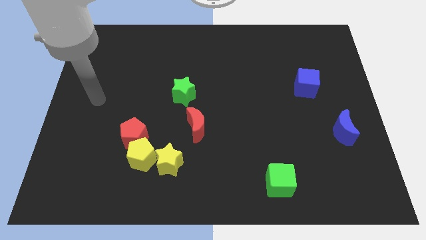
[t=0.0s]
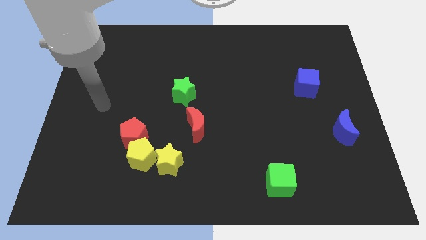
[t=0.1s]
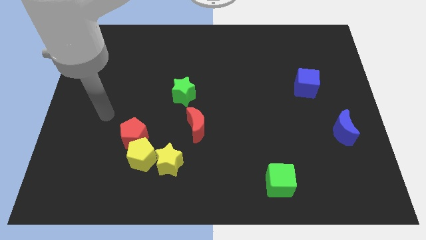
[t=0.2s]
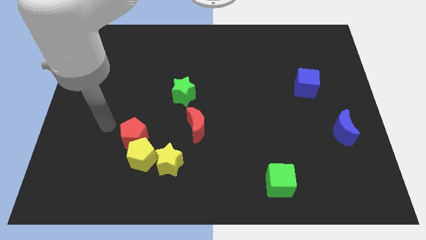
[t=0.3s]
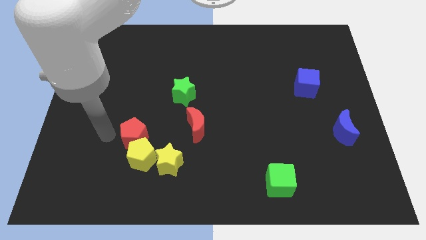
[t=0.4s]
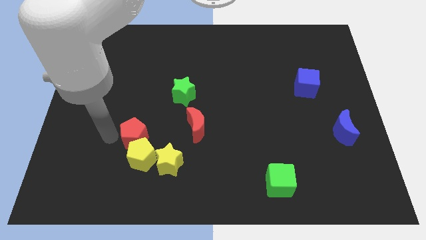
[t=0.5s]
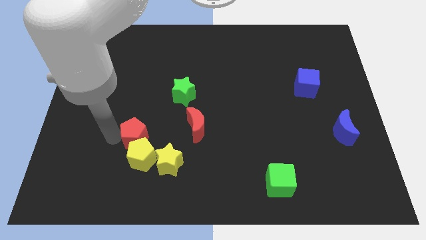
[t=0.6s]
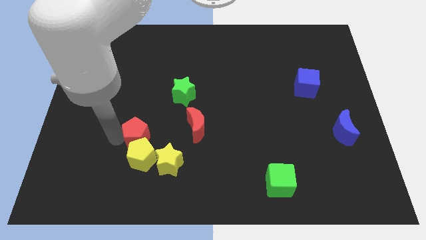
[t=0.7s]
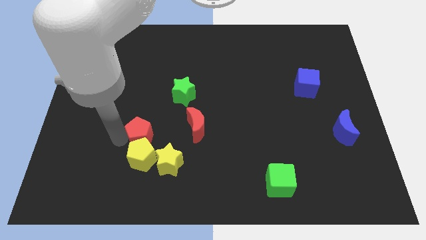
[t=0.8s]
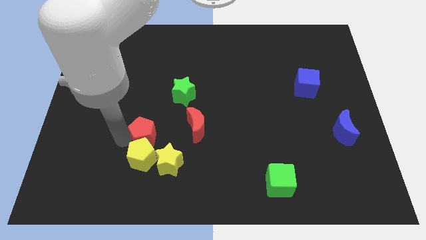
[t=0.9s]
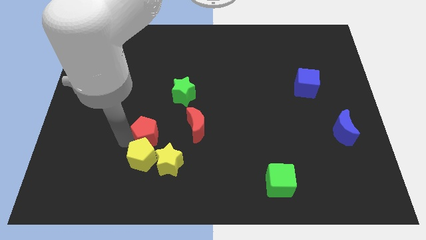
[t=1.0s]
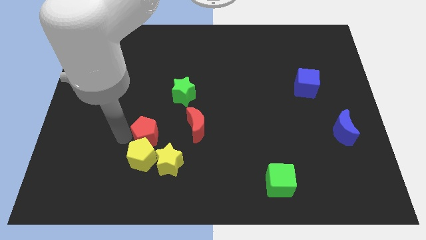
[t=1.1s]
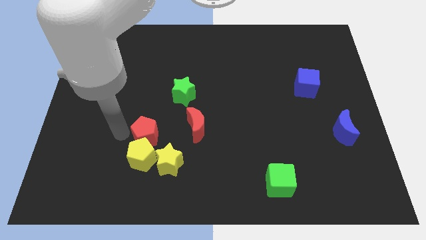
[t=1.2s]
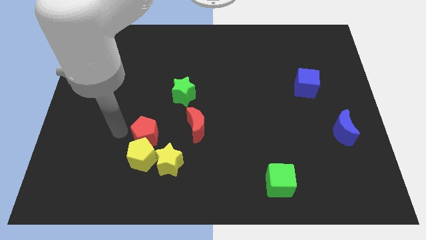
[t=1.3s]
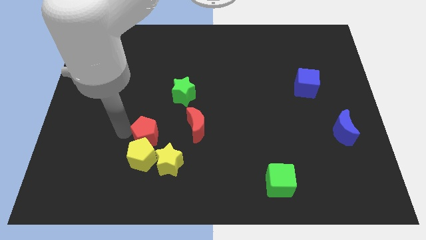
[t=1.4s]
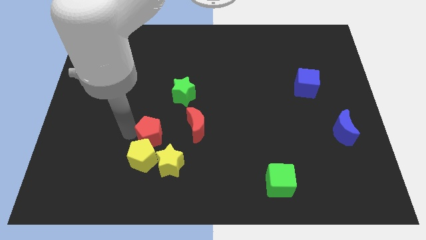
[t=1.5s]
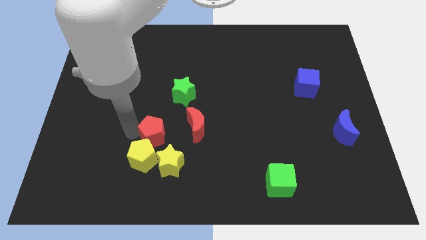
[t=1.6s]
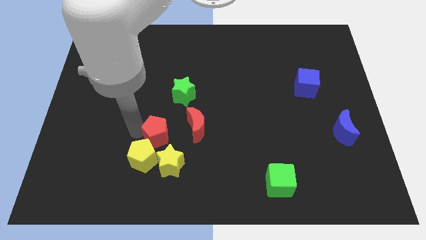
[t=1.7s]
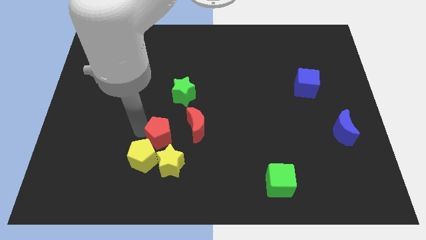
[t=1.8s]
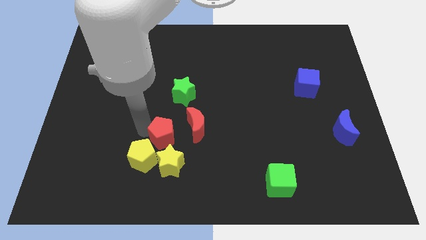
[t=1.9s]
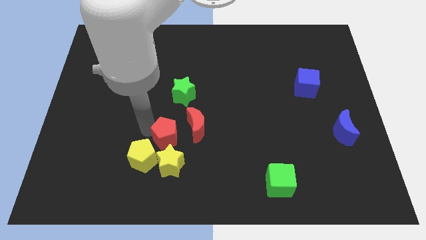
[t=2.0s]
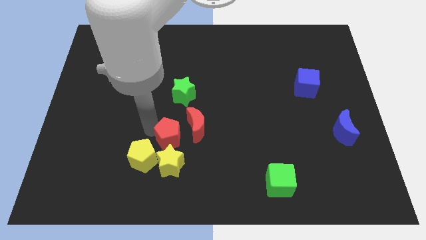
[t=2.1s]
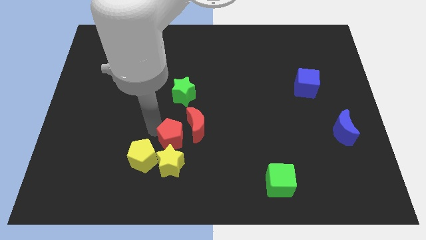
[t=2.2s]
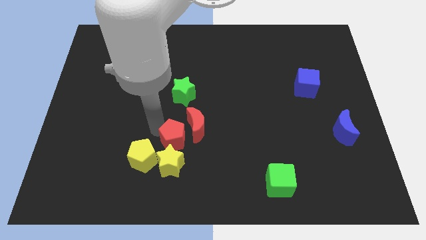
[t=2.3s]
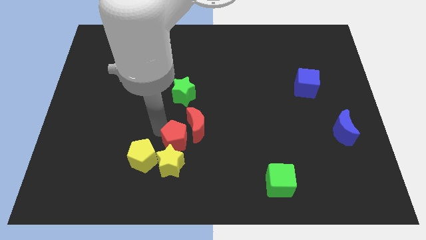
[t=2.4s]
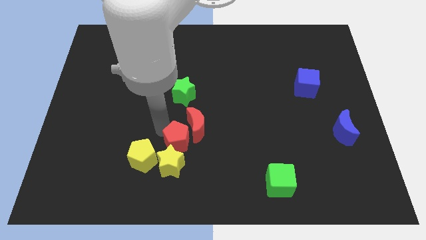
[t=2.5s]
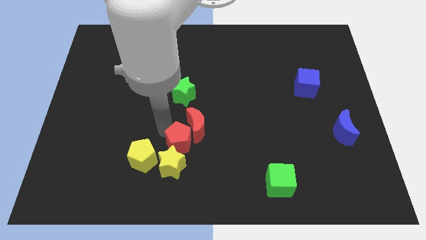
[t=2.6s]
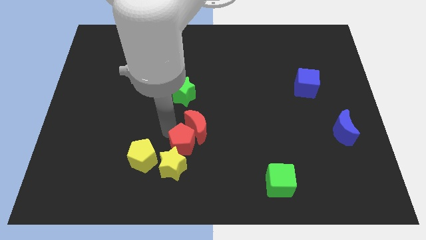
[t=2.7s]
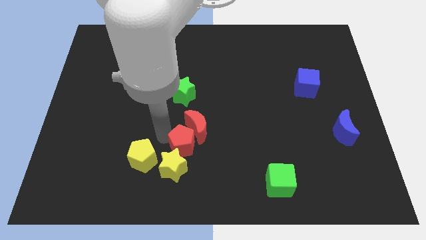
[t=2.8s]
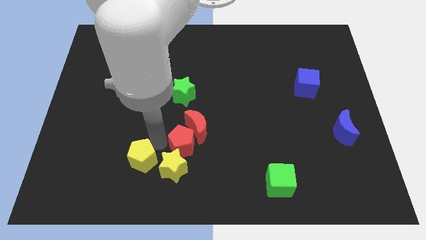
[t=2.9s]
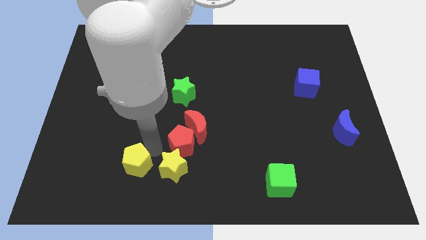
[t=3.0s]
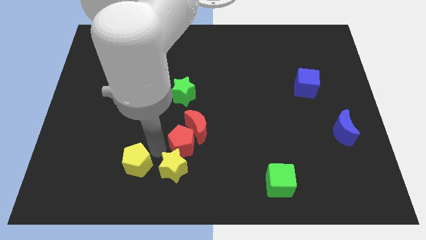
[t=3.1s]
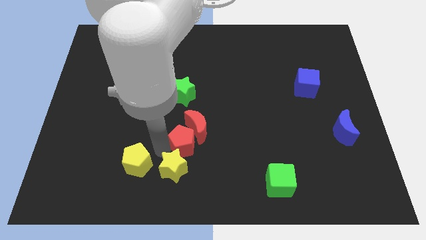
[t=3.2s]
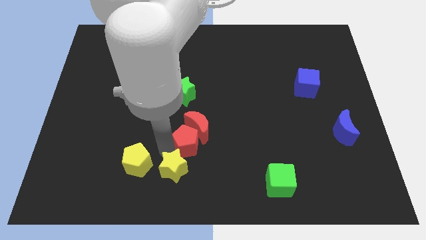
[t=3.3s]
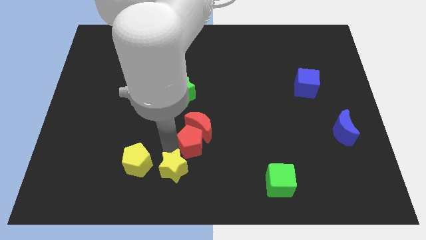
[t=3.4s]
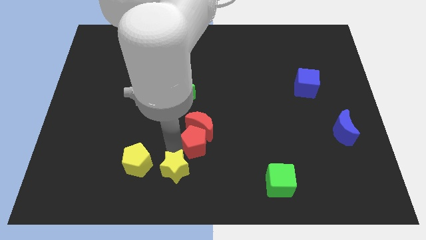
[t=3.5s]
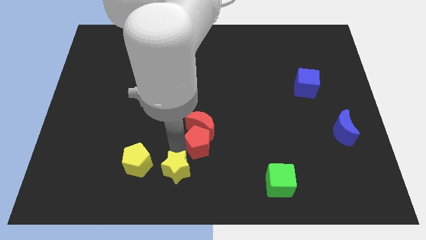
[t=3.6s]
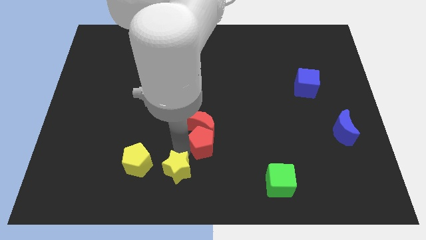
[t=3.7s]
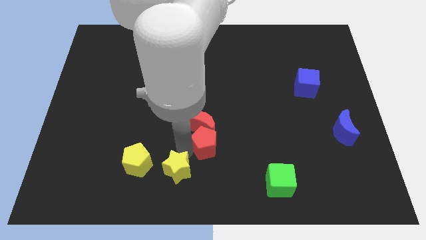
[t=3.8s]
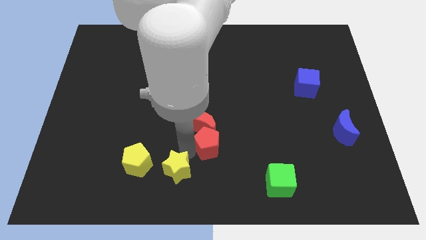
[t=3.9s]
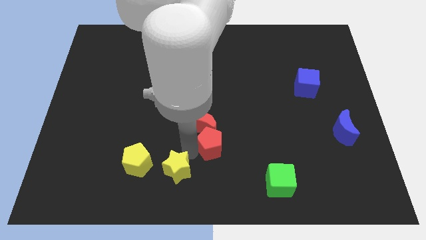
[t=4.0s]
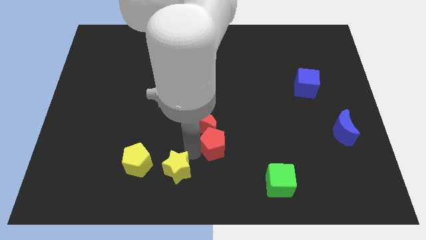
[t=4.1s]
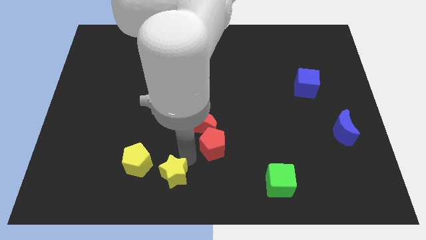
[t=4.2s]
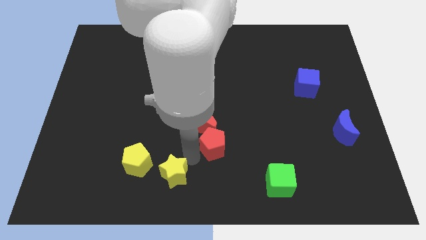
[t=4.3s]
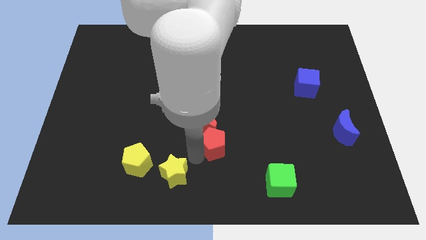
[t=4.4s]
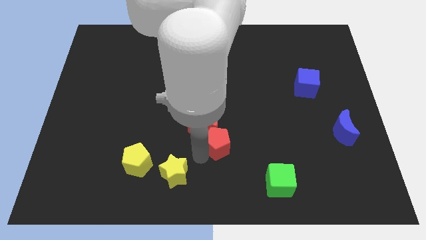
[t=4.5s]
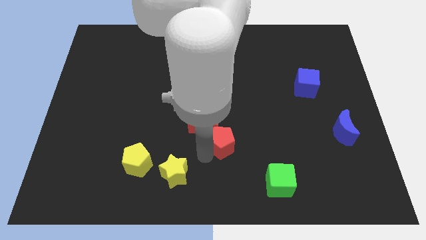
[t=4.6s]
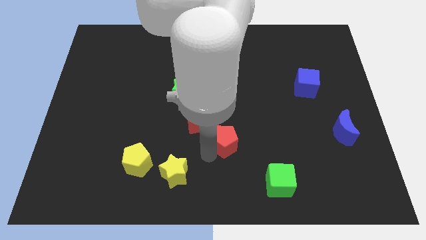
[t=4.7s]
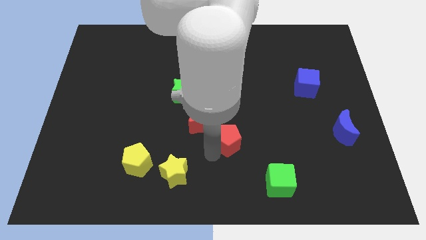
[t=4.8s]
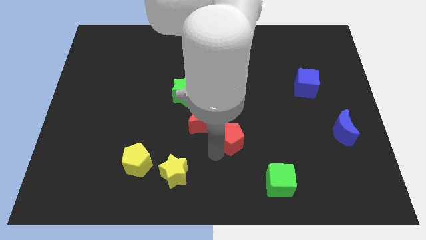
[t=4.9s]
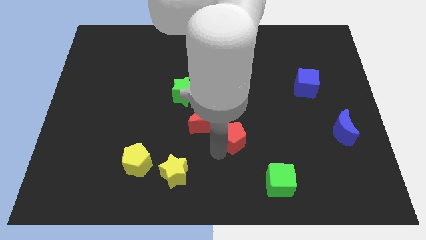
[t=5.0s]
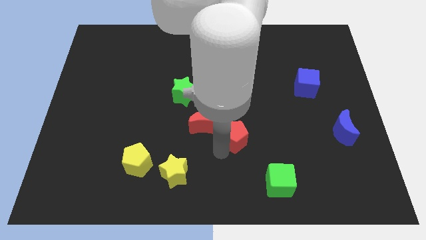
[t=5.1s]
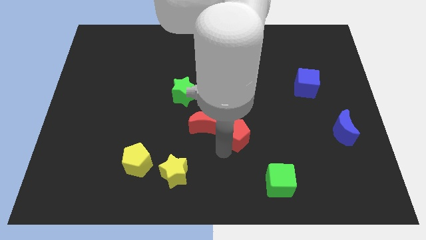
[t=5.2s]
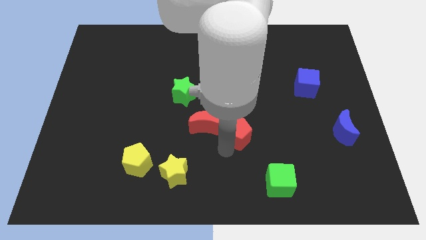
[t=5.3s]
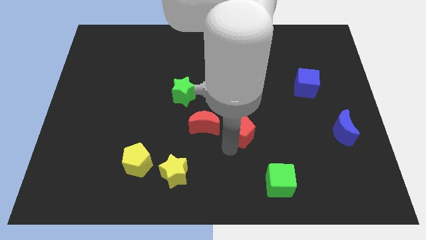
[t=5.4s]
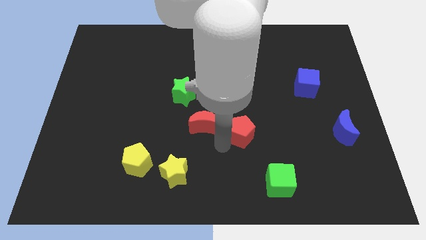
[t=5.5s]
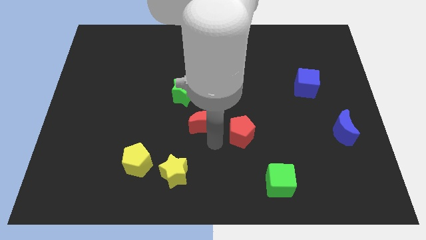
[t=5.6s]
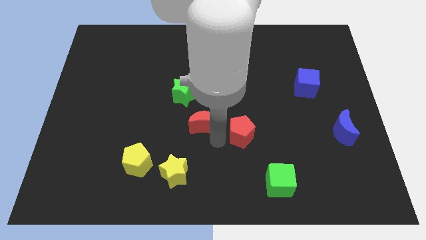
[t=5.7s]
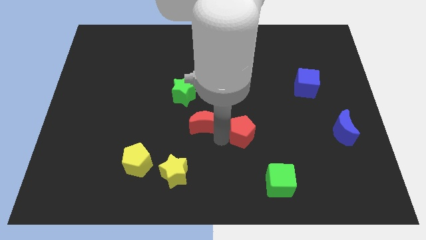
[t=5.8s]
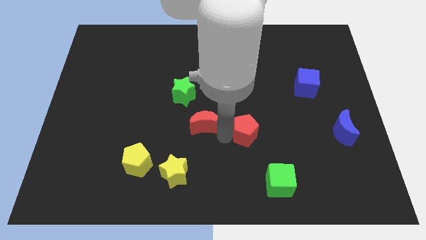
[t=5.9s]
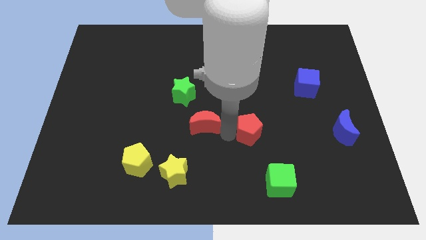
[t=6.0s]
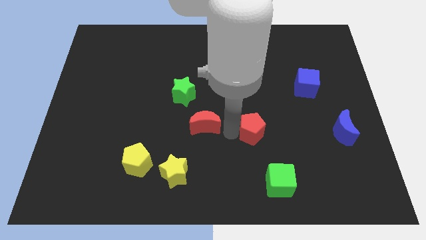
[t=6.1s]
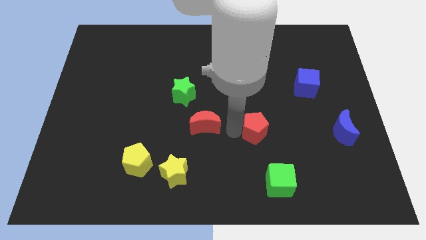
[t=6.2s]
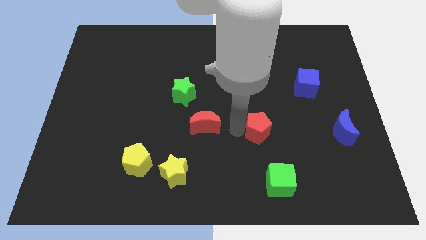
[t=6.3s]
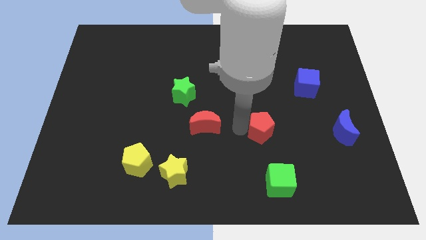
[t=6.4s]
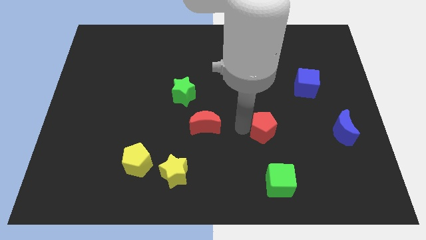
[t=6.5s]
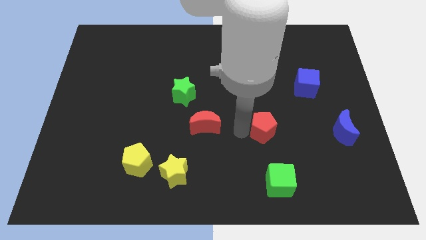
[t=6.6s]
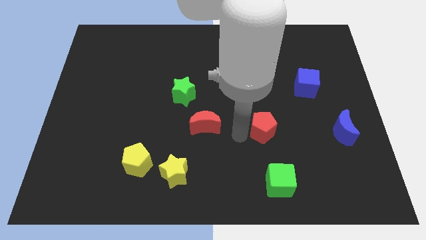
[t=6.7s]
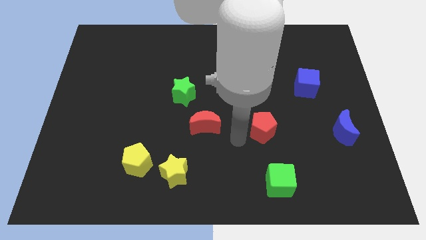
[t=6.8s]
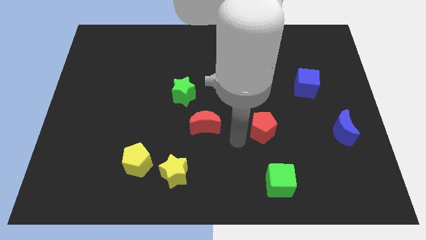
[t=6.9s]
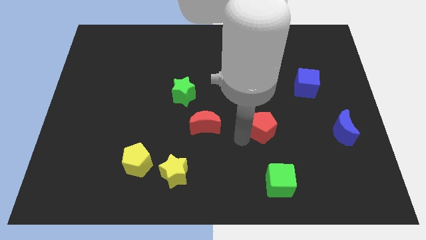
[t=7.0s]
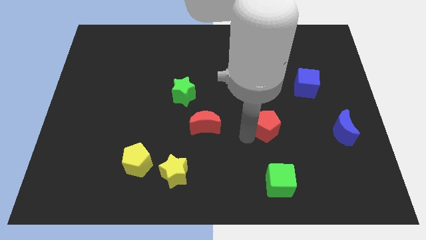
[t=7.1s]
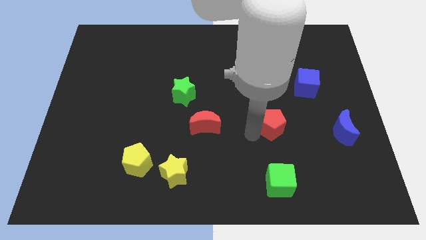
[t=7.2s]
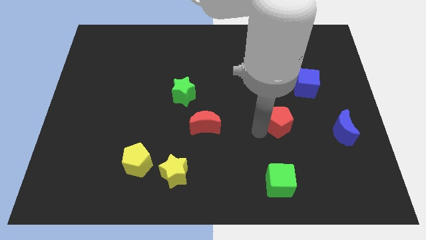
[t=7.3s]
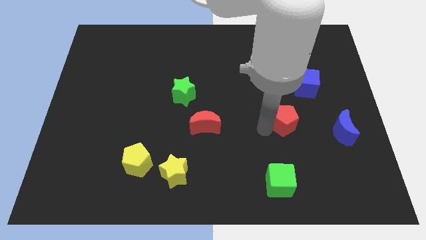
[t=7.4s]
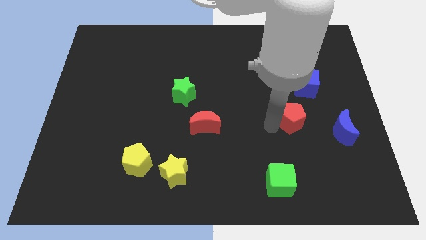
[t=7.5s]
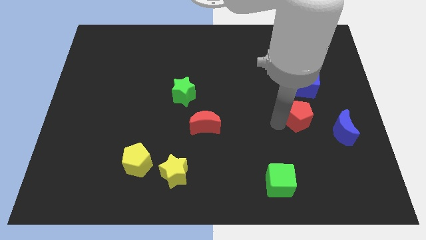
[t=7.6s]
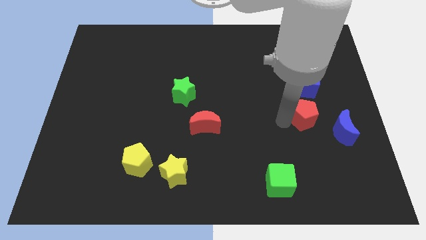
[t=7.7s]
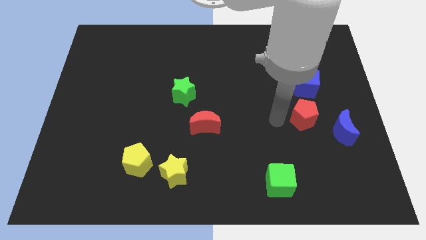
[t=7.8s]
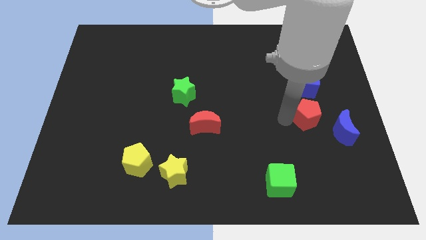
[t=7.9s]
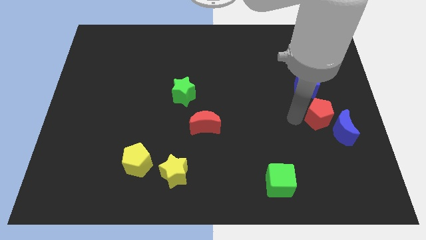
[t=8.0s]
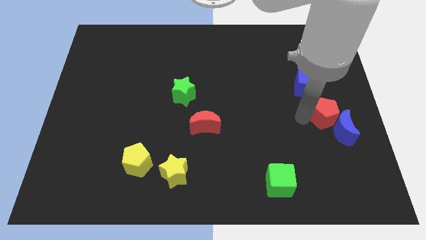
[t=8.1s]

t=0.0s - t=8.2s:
slide the red pentagon to the right side
